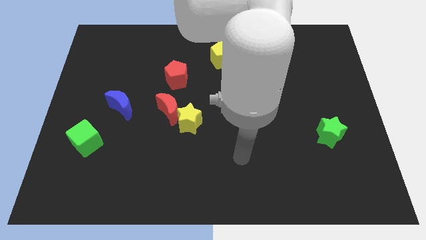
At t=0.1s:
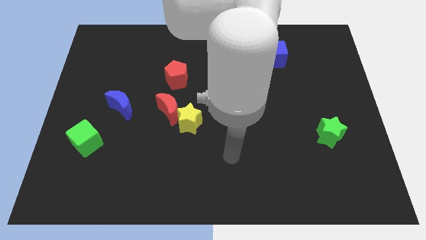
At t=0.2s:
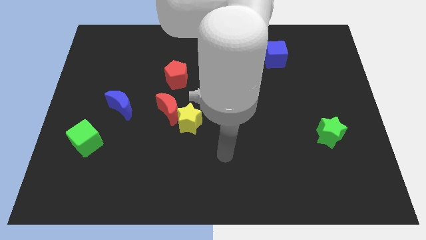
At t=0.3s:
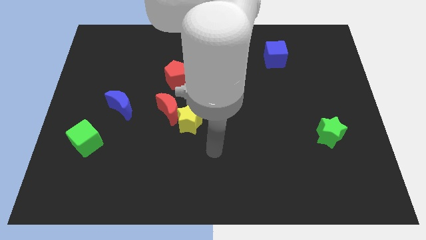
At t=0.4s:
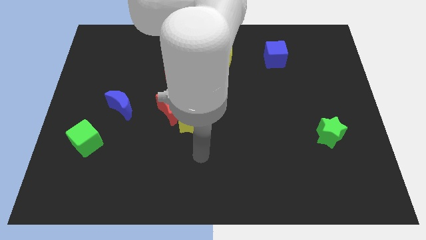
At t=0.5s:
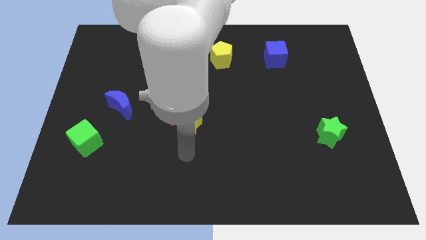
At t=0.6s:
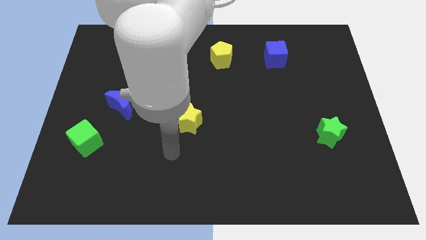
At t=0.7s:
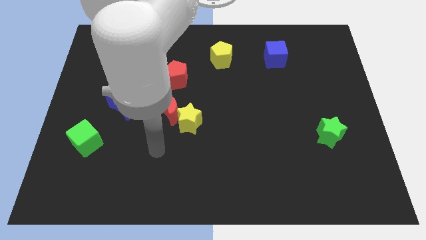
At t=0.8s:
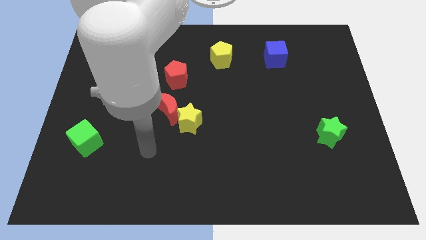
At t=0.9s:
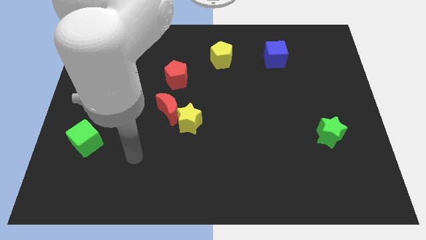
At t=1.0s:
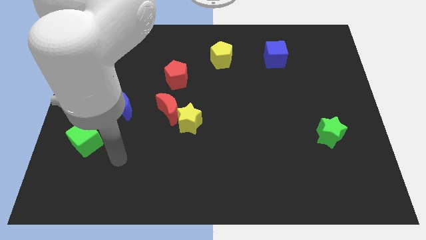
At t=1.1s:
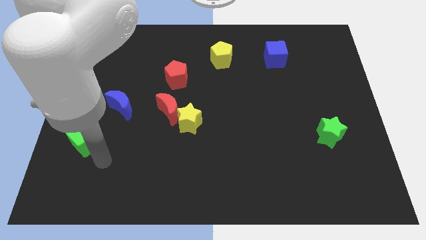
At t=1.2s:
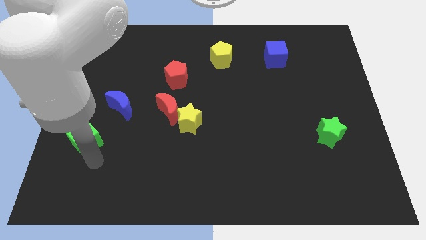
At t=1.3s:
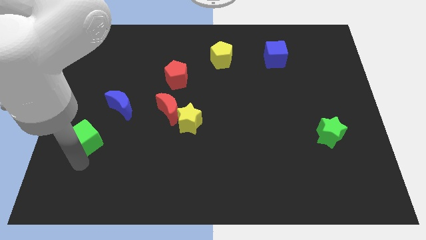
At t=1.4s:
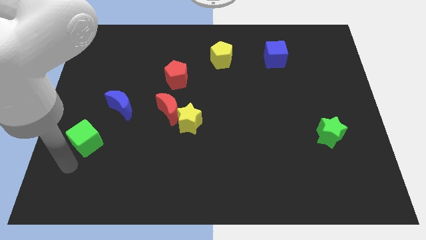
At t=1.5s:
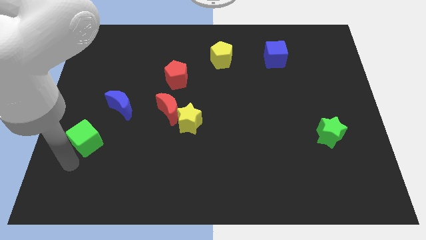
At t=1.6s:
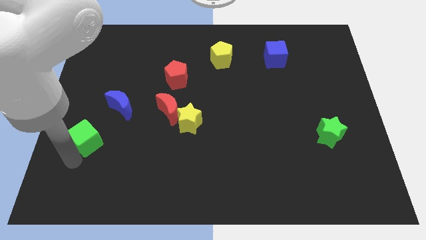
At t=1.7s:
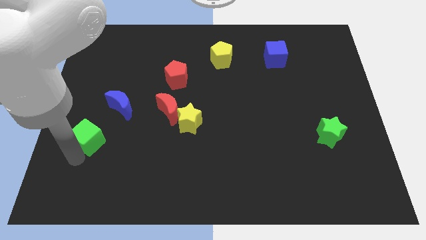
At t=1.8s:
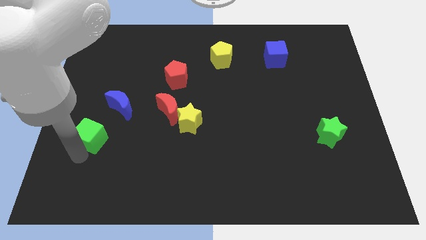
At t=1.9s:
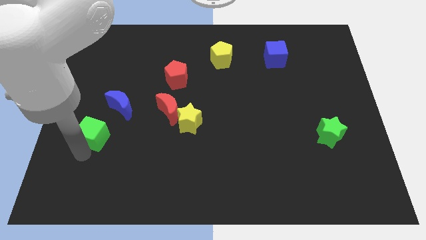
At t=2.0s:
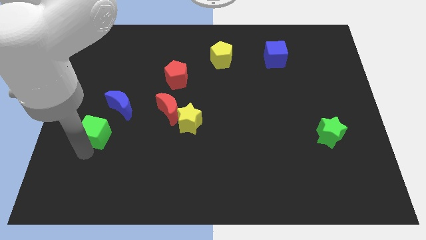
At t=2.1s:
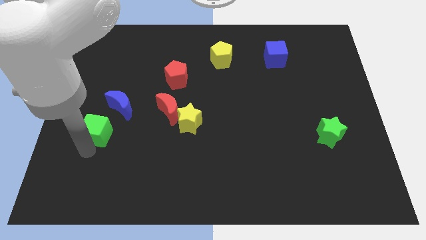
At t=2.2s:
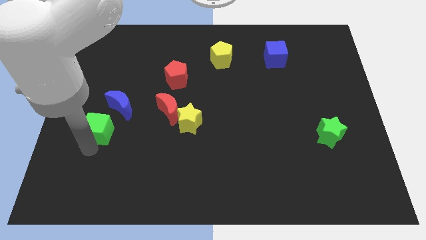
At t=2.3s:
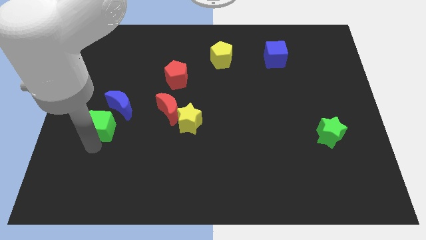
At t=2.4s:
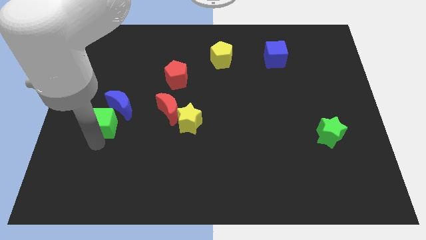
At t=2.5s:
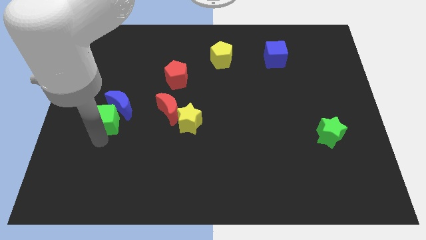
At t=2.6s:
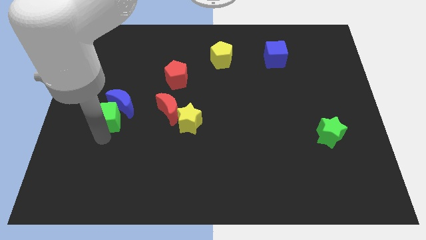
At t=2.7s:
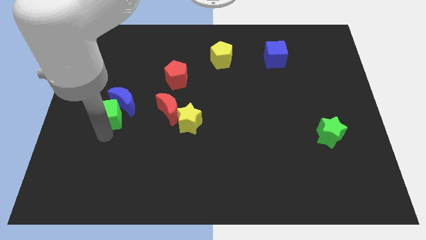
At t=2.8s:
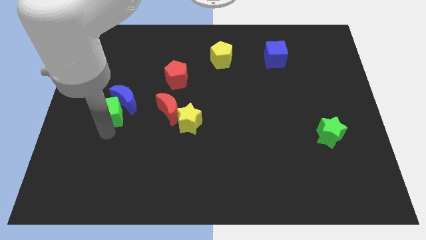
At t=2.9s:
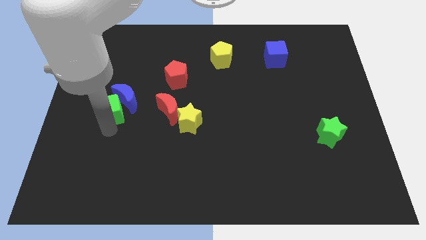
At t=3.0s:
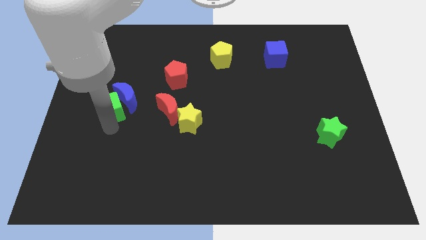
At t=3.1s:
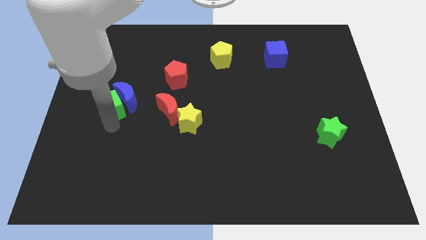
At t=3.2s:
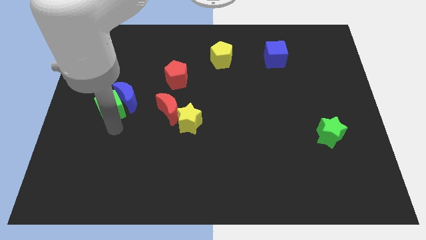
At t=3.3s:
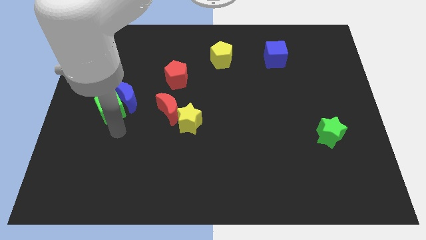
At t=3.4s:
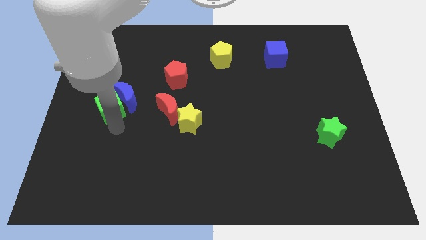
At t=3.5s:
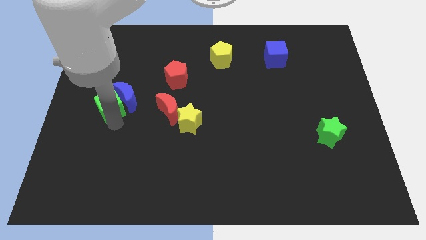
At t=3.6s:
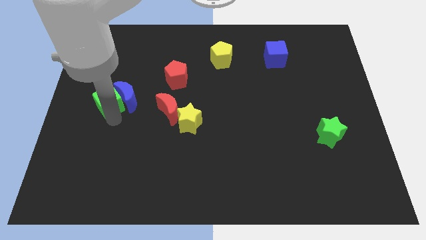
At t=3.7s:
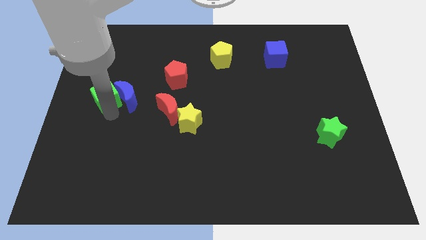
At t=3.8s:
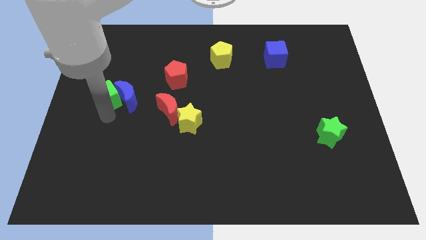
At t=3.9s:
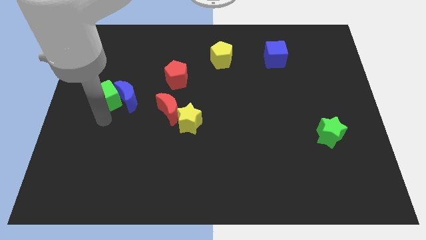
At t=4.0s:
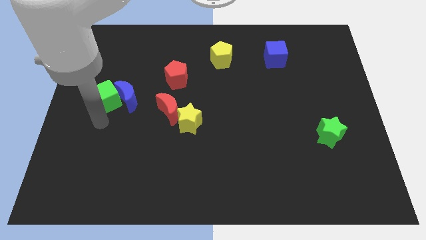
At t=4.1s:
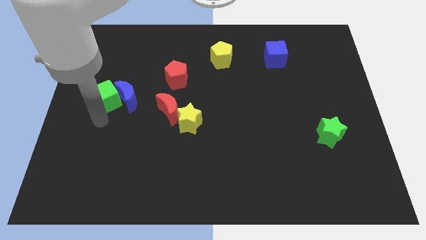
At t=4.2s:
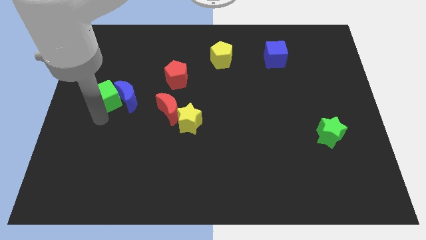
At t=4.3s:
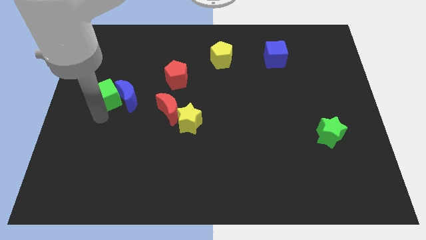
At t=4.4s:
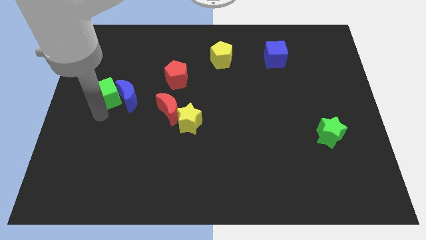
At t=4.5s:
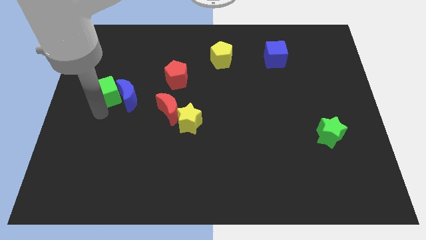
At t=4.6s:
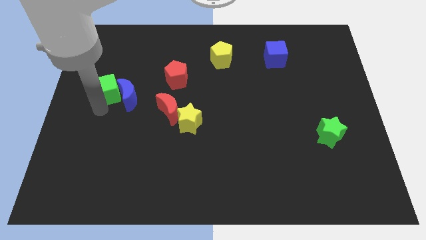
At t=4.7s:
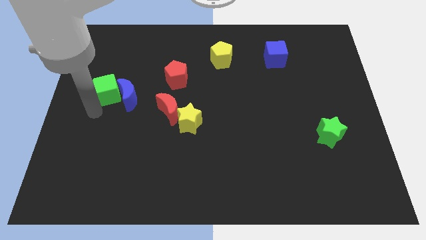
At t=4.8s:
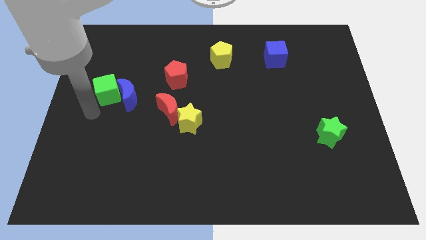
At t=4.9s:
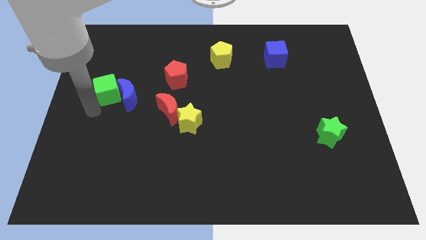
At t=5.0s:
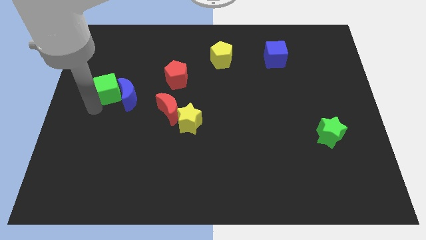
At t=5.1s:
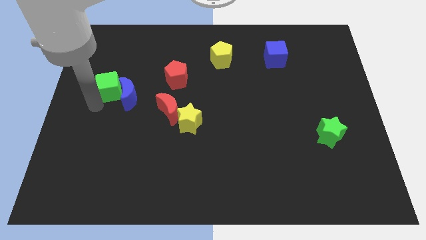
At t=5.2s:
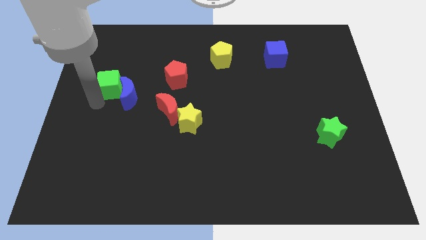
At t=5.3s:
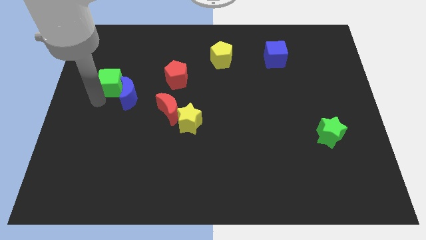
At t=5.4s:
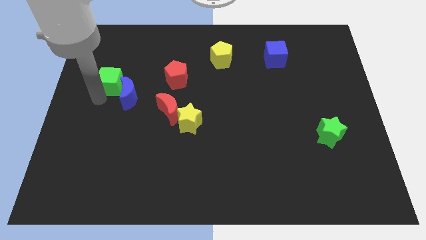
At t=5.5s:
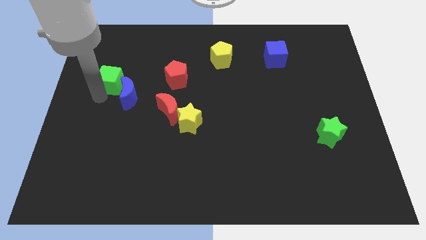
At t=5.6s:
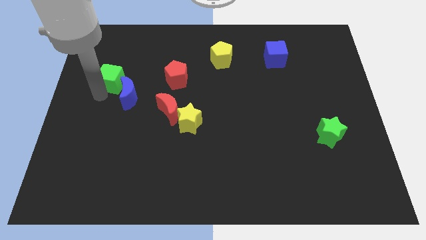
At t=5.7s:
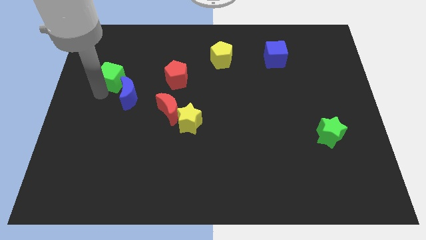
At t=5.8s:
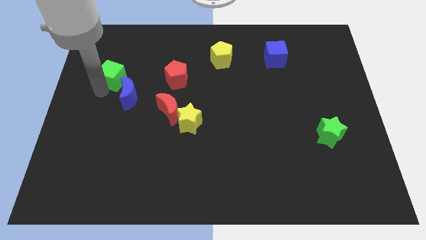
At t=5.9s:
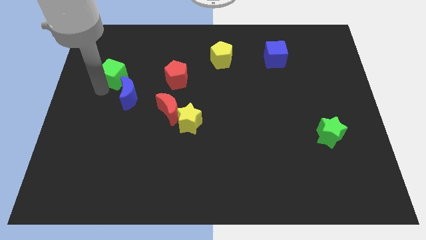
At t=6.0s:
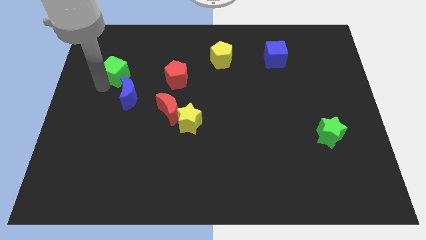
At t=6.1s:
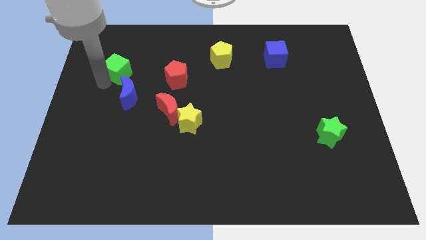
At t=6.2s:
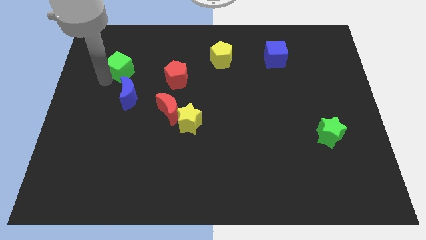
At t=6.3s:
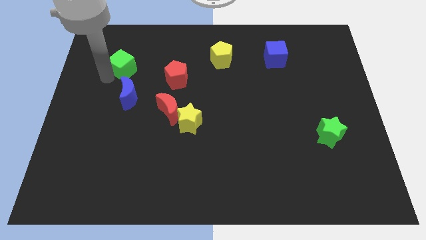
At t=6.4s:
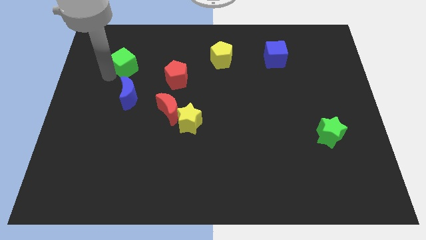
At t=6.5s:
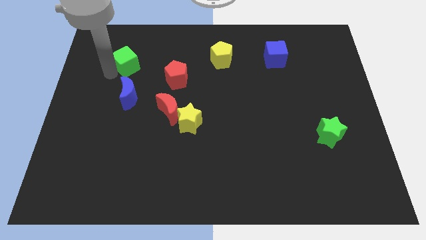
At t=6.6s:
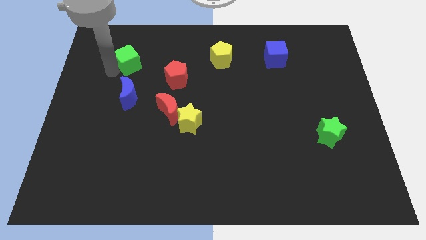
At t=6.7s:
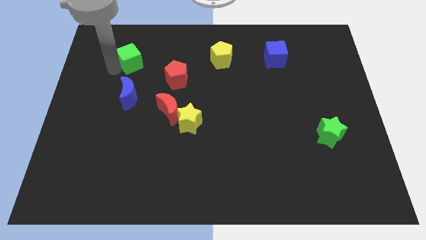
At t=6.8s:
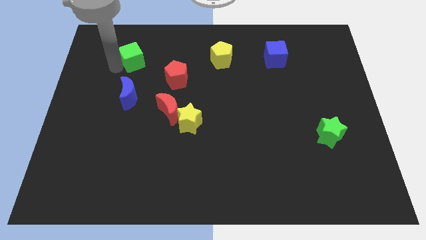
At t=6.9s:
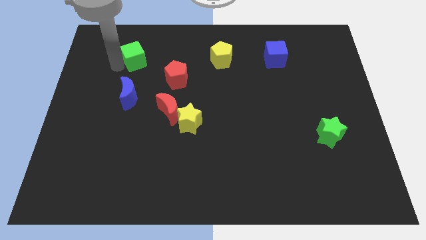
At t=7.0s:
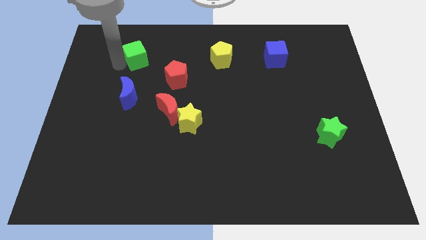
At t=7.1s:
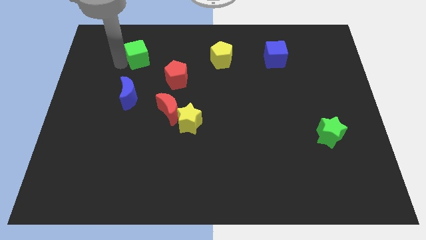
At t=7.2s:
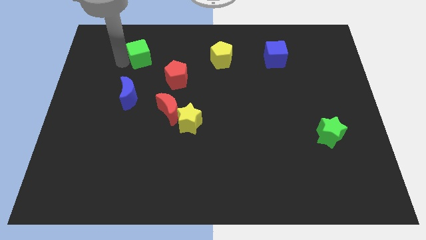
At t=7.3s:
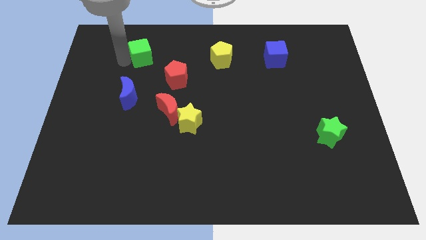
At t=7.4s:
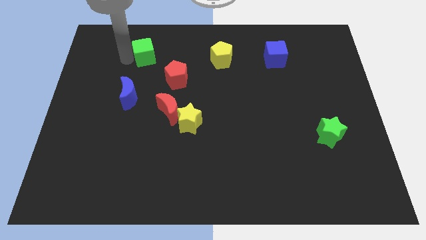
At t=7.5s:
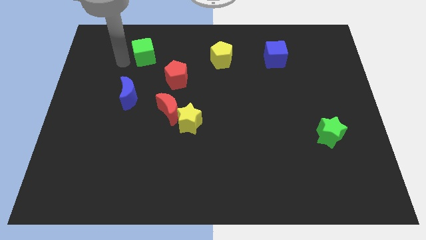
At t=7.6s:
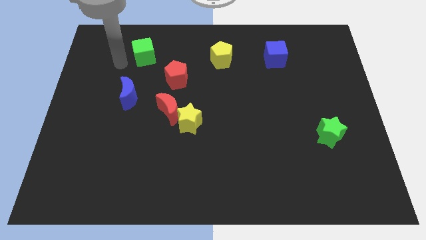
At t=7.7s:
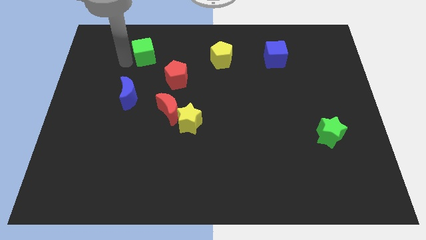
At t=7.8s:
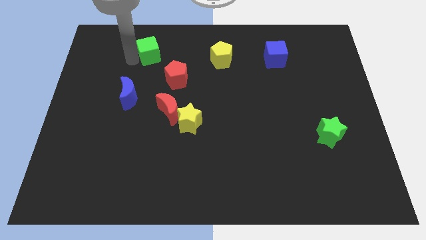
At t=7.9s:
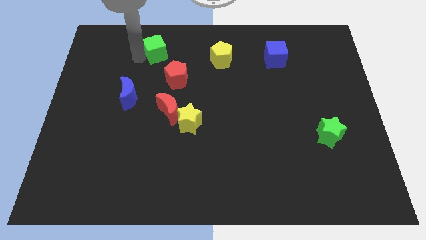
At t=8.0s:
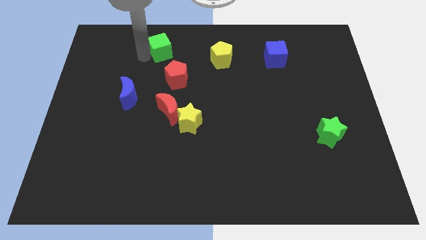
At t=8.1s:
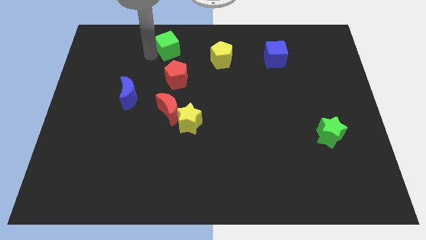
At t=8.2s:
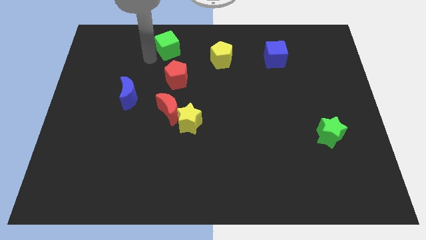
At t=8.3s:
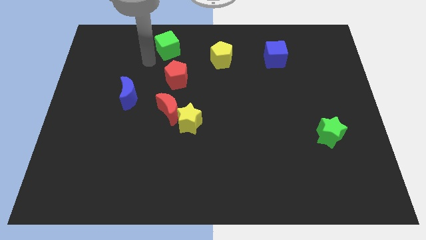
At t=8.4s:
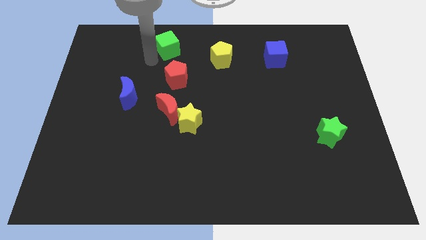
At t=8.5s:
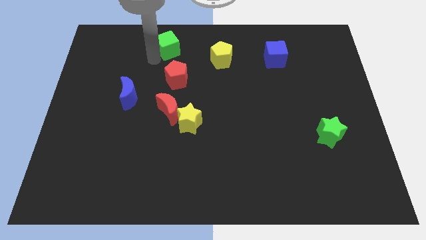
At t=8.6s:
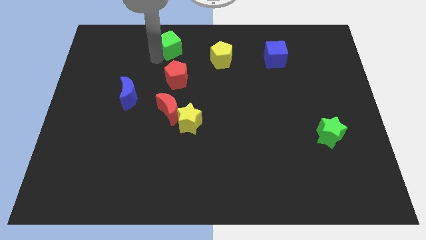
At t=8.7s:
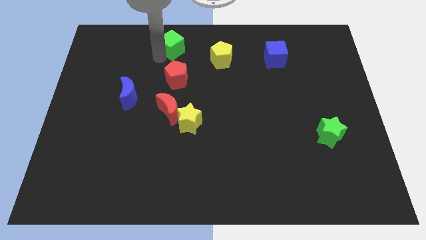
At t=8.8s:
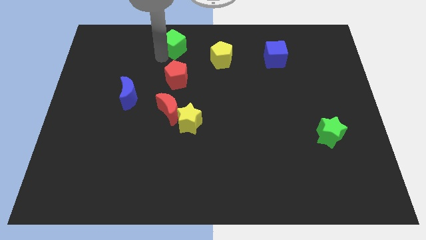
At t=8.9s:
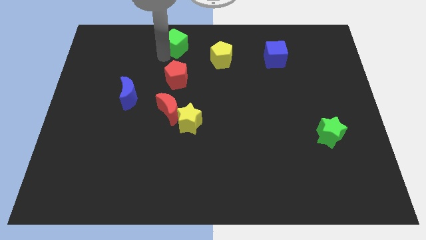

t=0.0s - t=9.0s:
slide the green cube to the top
